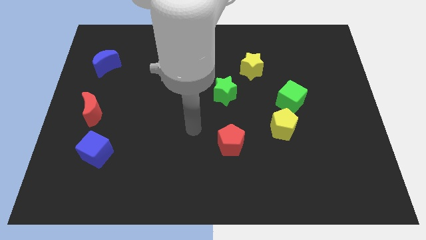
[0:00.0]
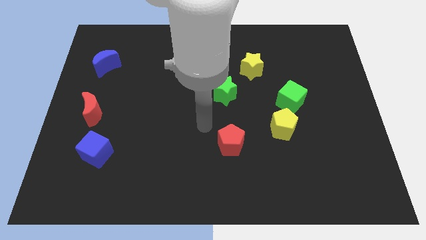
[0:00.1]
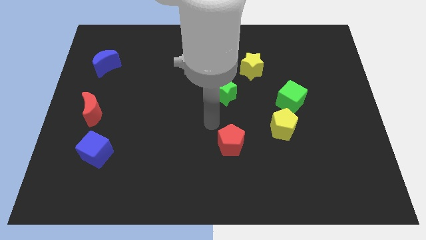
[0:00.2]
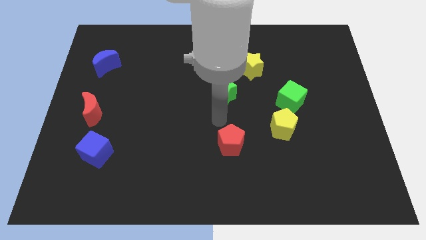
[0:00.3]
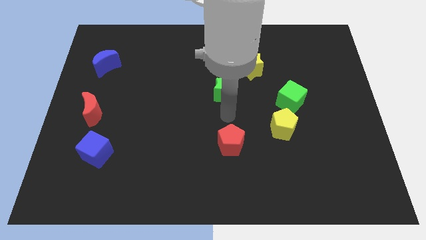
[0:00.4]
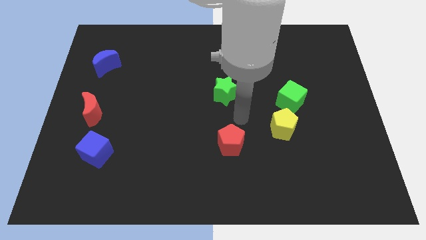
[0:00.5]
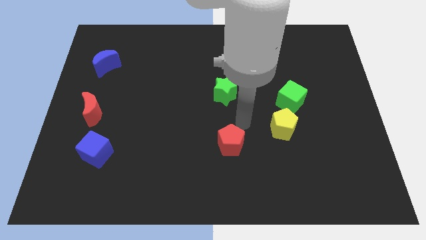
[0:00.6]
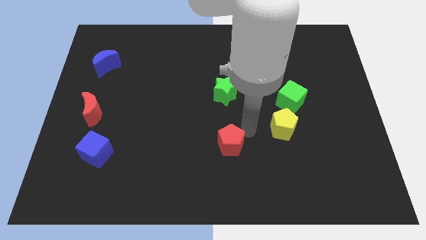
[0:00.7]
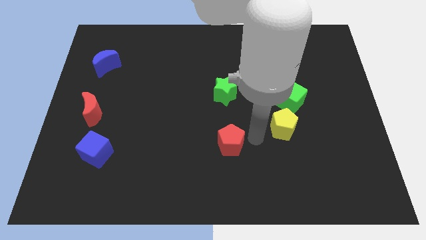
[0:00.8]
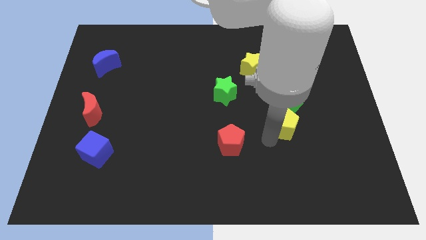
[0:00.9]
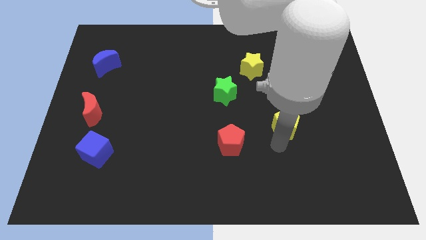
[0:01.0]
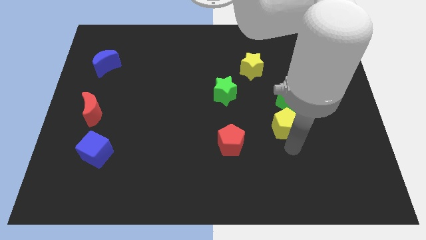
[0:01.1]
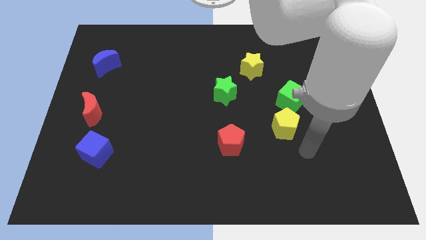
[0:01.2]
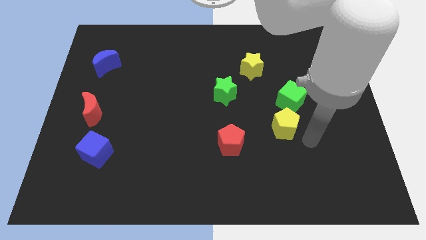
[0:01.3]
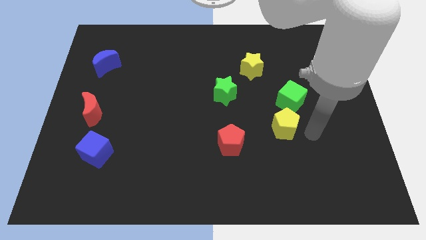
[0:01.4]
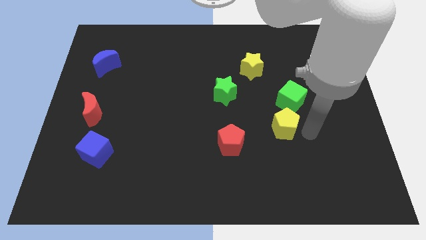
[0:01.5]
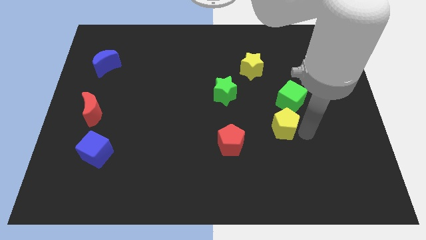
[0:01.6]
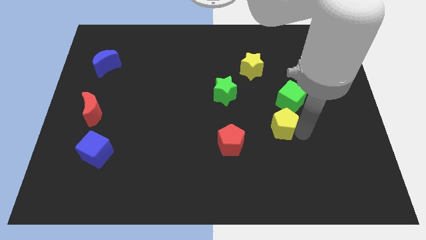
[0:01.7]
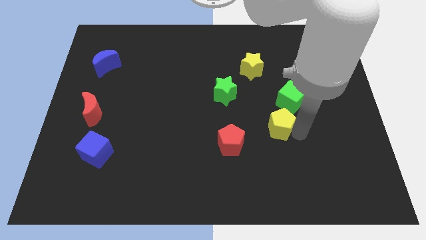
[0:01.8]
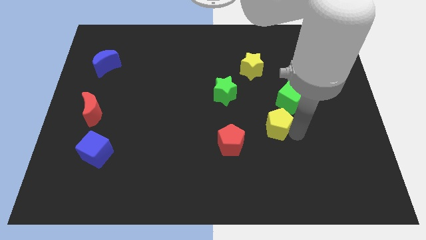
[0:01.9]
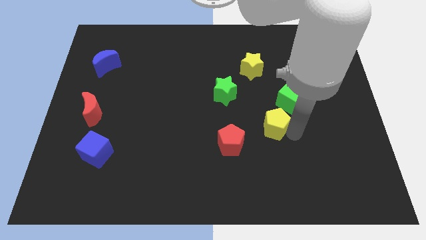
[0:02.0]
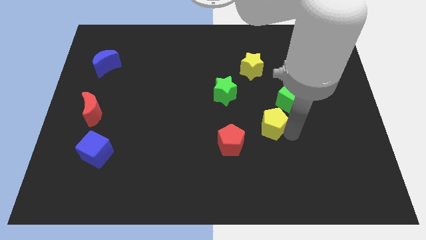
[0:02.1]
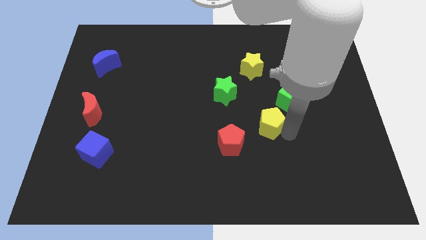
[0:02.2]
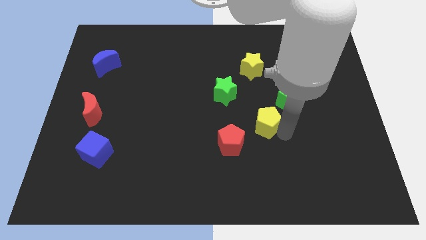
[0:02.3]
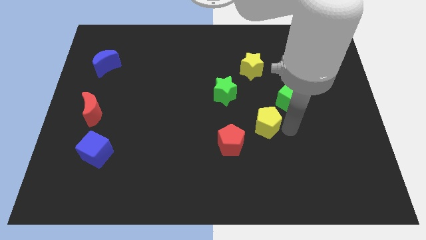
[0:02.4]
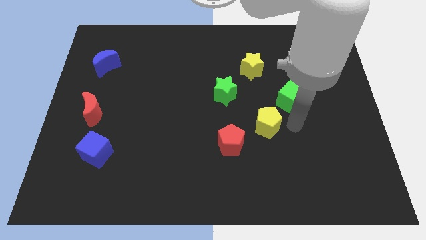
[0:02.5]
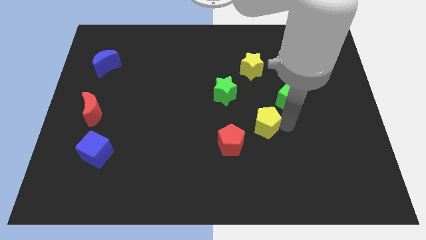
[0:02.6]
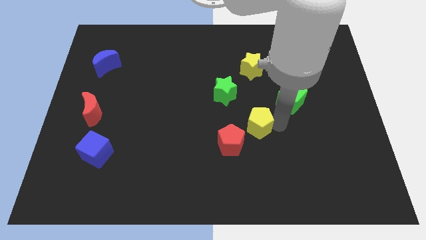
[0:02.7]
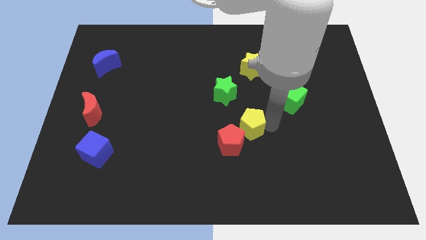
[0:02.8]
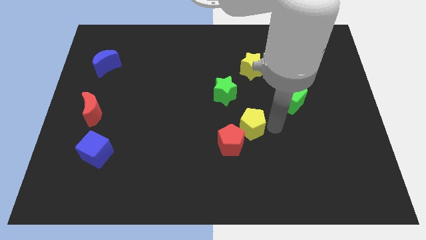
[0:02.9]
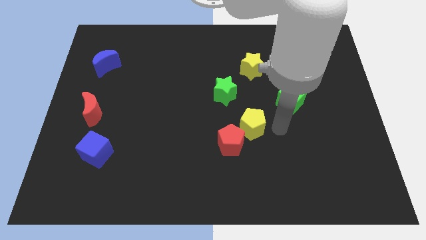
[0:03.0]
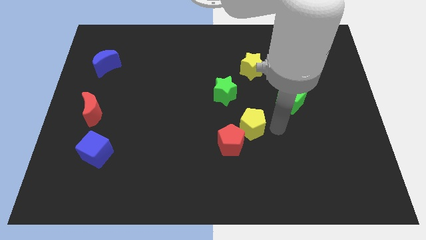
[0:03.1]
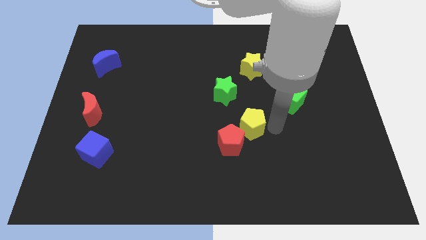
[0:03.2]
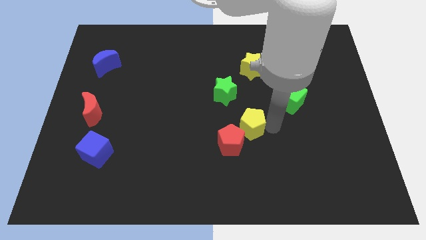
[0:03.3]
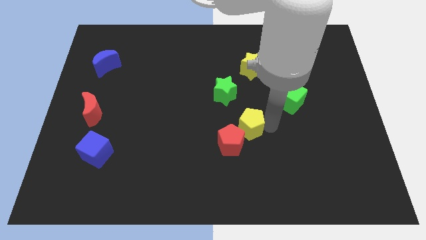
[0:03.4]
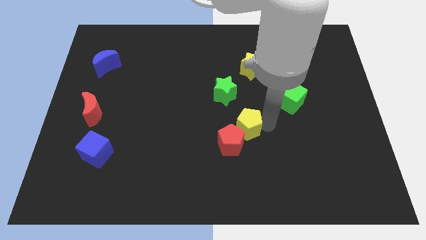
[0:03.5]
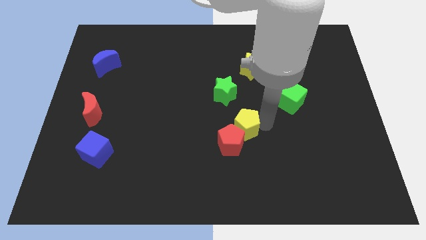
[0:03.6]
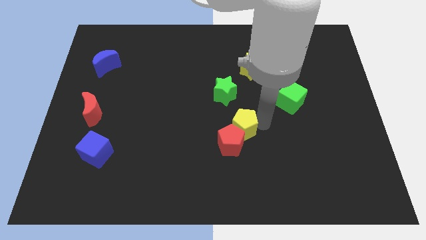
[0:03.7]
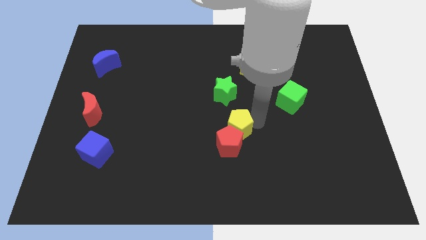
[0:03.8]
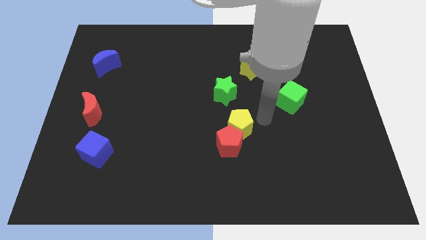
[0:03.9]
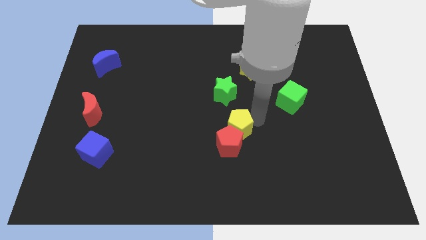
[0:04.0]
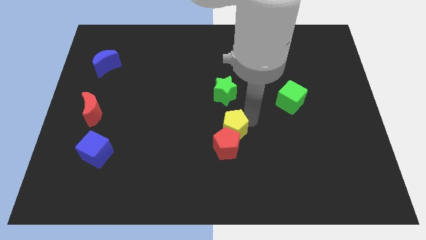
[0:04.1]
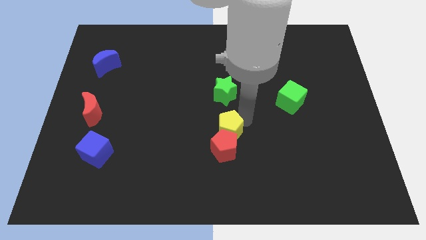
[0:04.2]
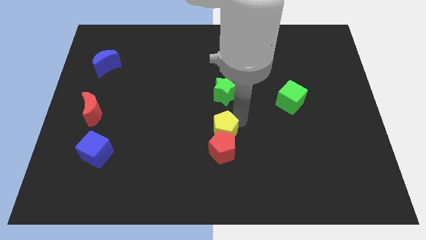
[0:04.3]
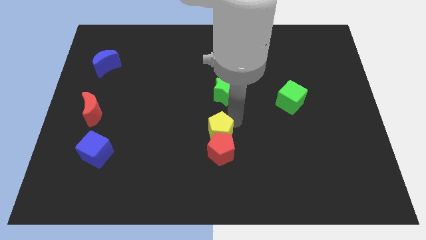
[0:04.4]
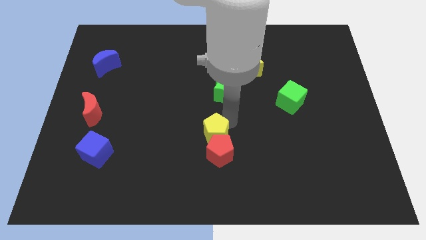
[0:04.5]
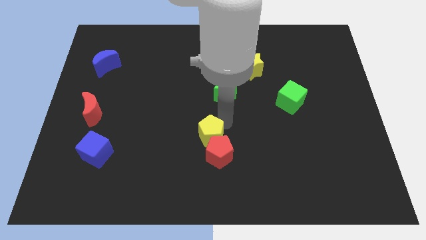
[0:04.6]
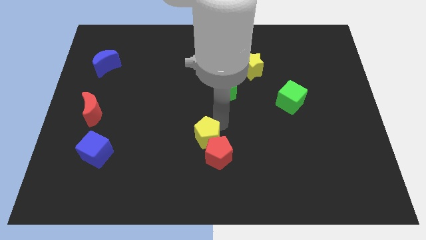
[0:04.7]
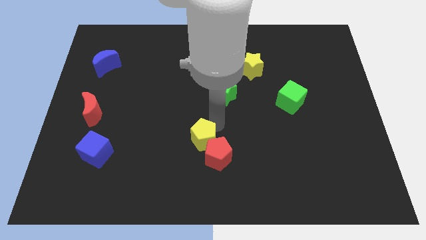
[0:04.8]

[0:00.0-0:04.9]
put the yellow pentagon just left of the red pentagon

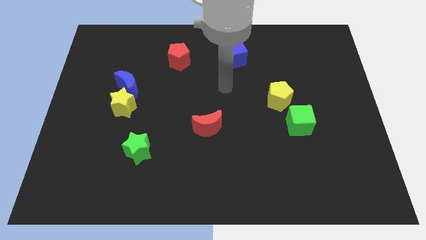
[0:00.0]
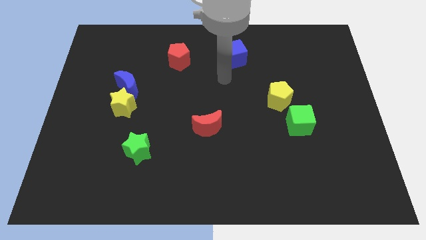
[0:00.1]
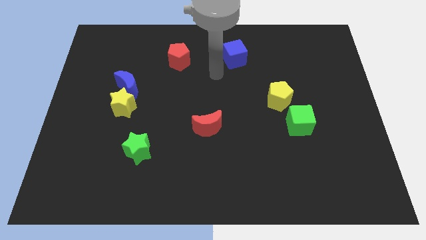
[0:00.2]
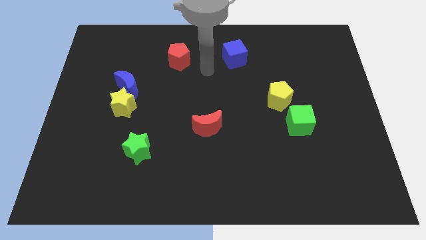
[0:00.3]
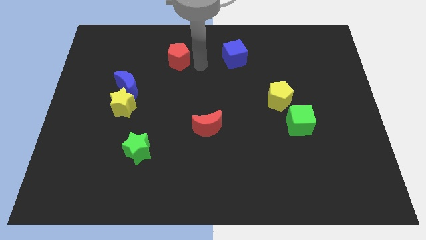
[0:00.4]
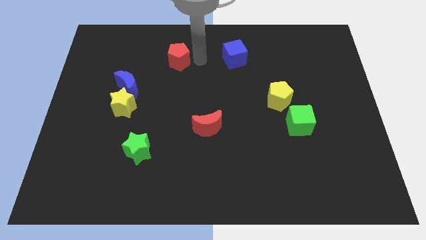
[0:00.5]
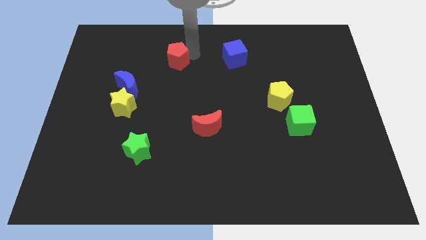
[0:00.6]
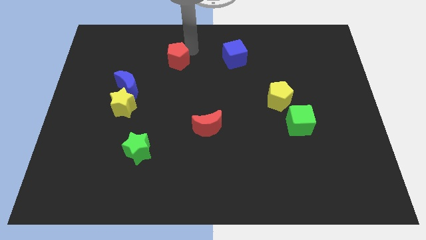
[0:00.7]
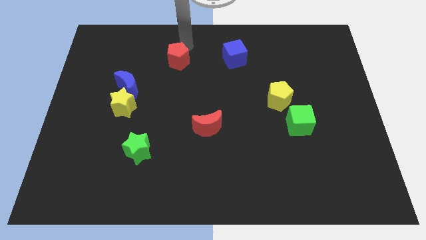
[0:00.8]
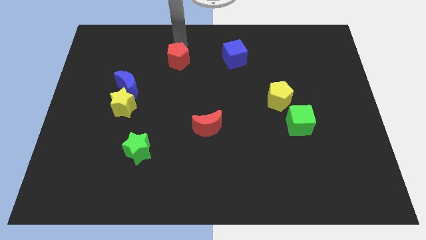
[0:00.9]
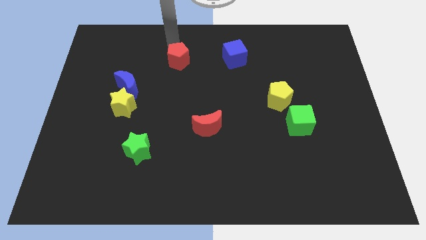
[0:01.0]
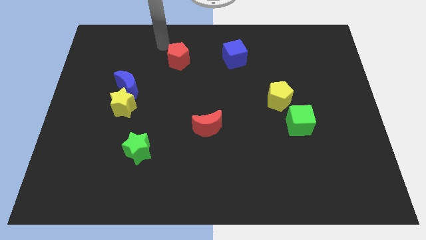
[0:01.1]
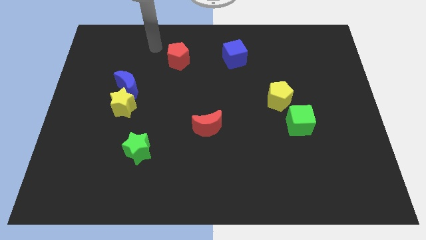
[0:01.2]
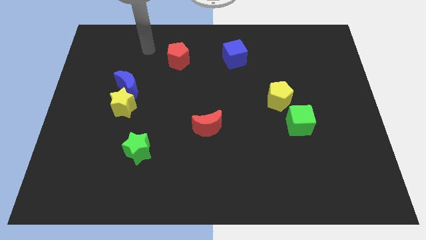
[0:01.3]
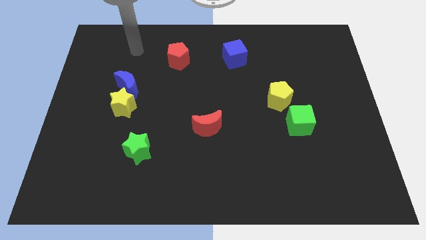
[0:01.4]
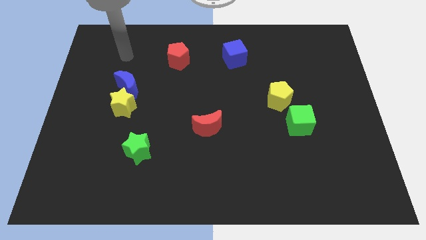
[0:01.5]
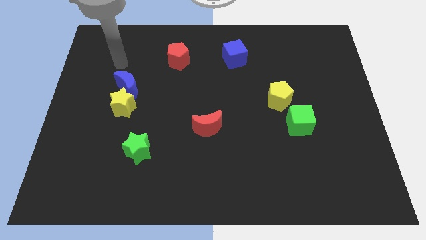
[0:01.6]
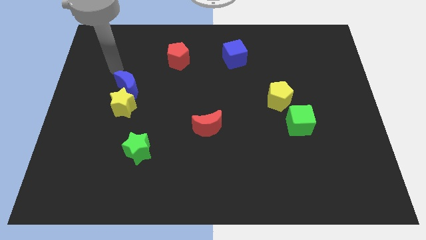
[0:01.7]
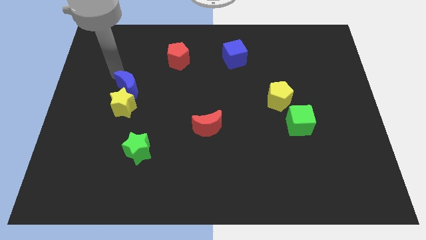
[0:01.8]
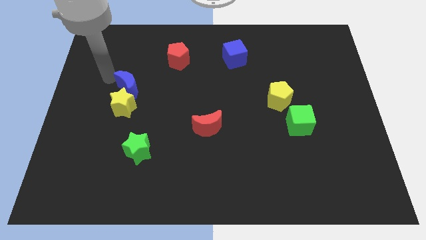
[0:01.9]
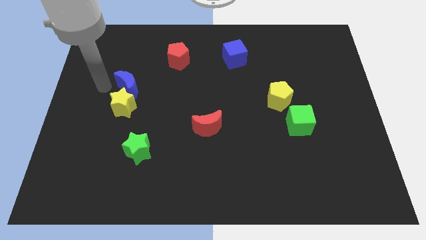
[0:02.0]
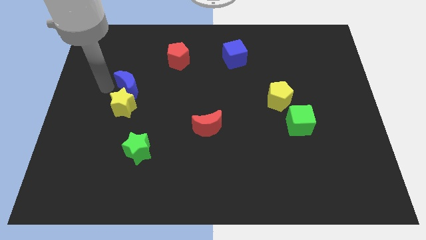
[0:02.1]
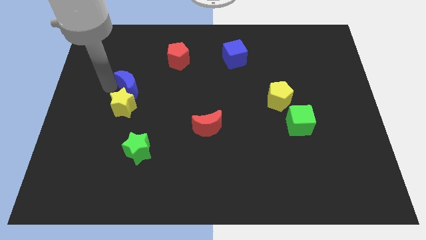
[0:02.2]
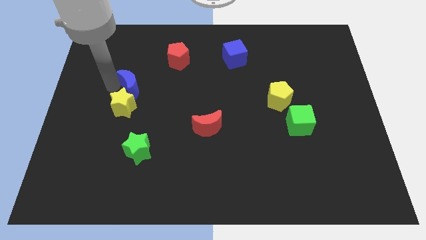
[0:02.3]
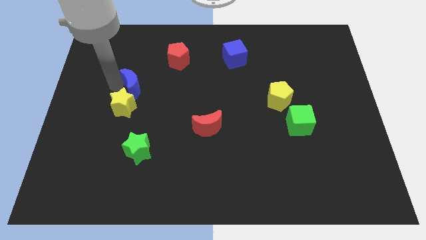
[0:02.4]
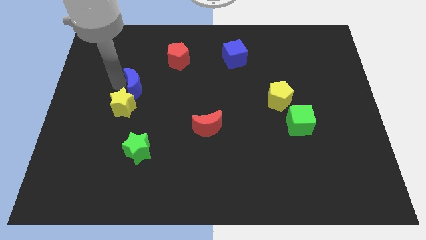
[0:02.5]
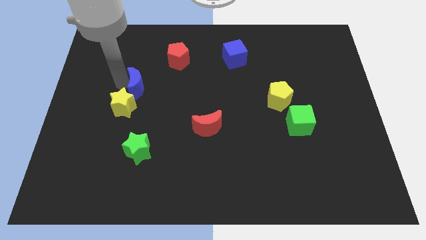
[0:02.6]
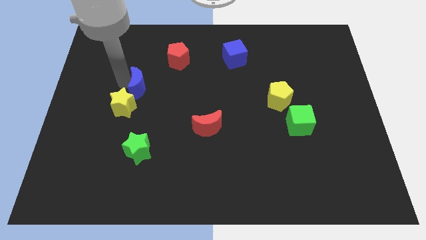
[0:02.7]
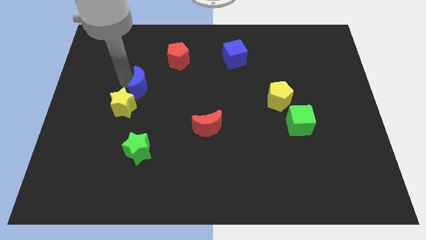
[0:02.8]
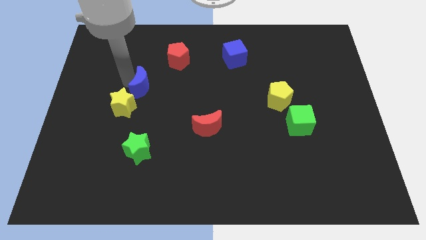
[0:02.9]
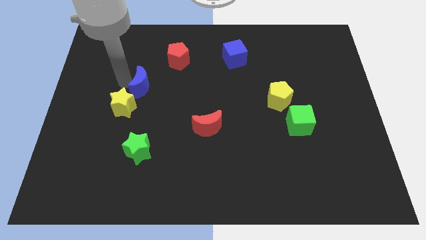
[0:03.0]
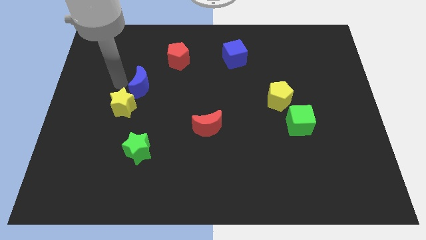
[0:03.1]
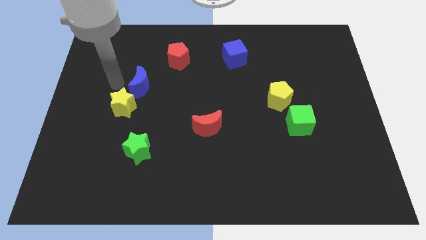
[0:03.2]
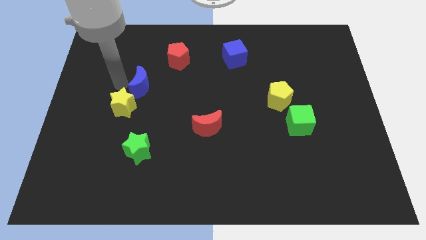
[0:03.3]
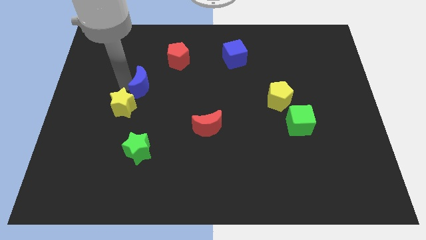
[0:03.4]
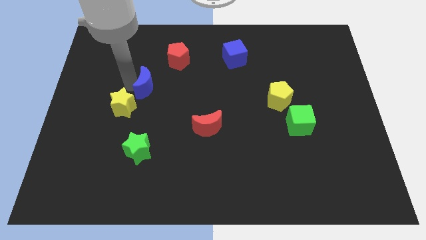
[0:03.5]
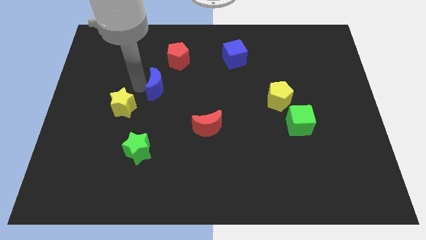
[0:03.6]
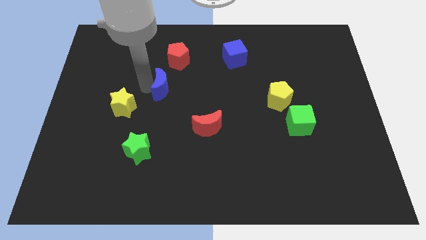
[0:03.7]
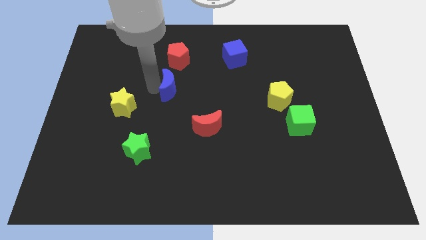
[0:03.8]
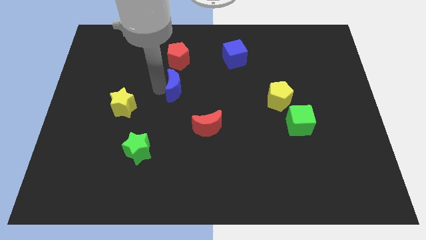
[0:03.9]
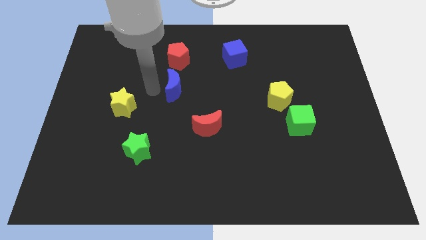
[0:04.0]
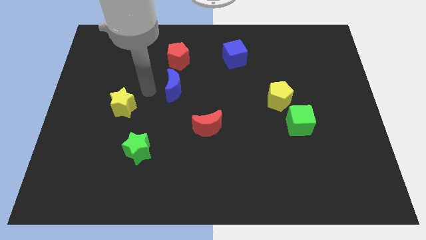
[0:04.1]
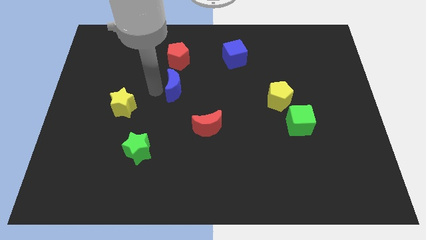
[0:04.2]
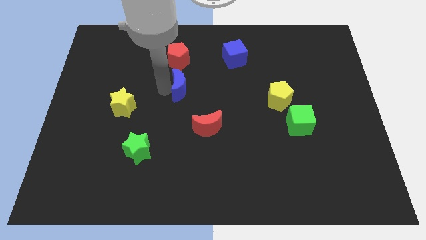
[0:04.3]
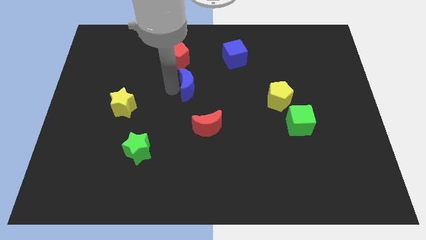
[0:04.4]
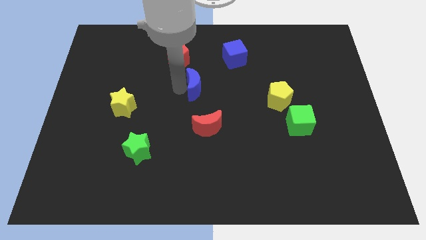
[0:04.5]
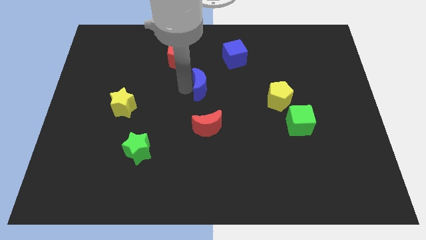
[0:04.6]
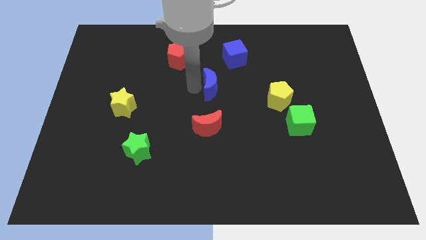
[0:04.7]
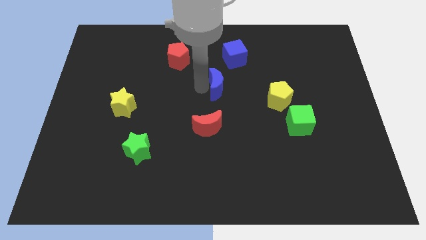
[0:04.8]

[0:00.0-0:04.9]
move the blue moon to the bottom side of the blue cube
